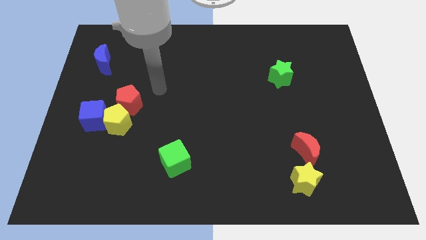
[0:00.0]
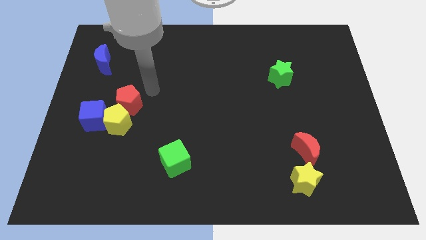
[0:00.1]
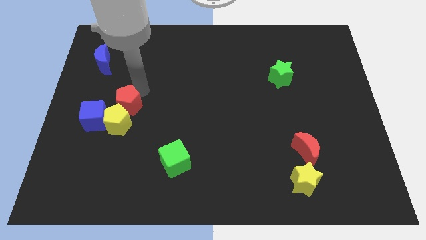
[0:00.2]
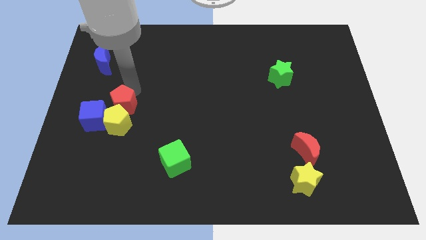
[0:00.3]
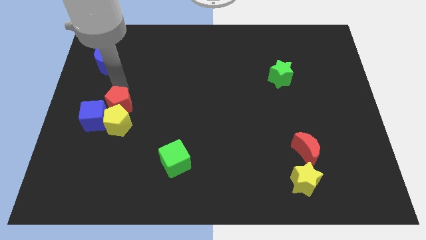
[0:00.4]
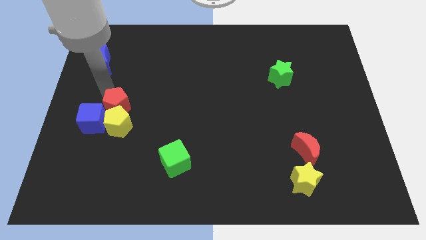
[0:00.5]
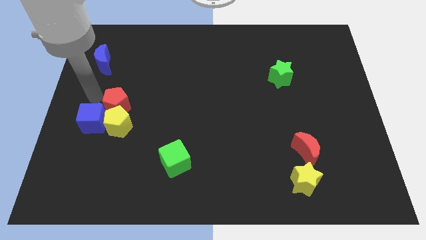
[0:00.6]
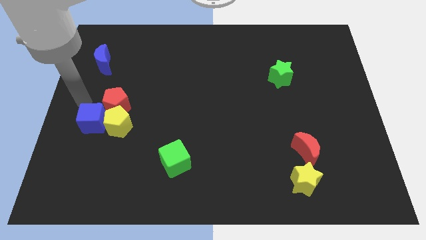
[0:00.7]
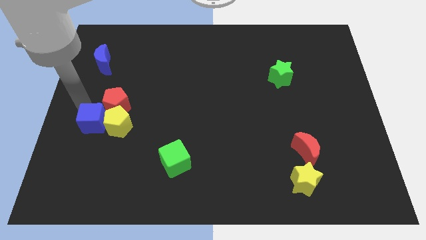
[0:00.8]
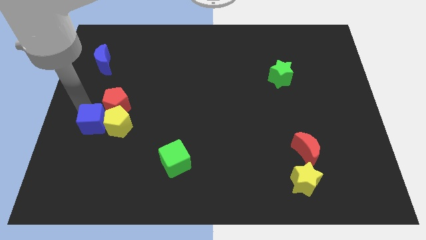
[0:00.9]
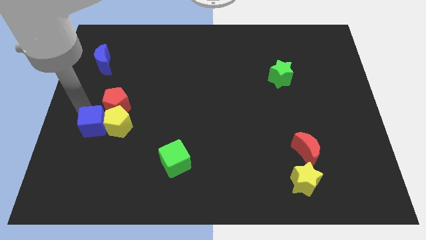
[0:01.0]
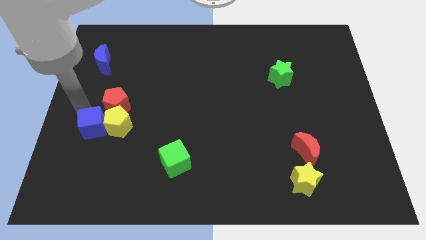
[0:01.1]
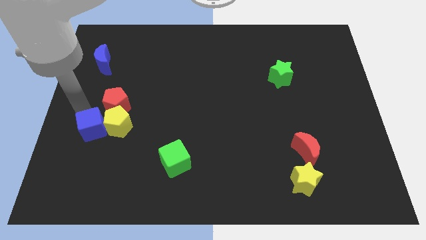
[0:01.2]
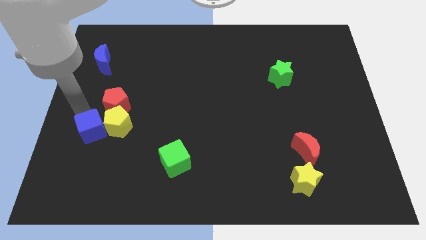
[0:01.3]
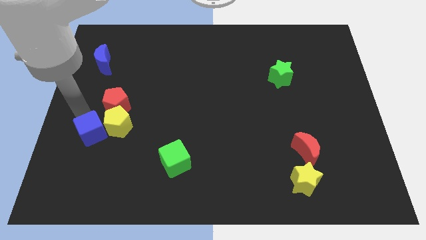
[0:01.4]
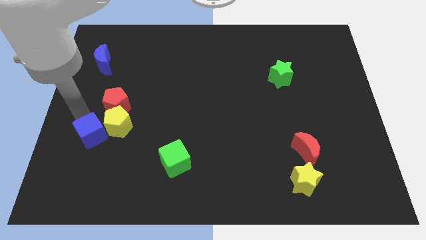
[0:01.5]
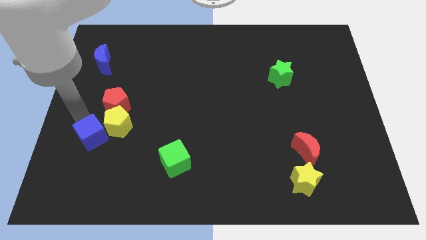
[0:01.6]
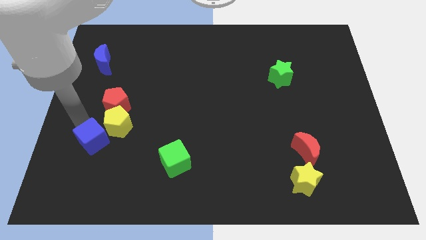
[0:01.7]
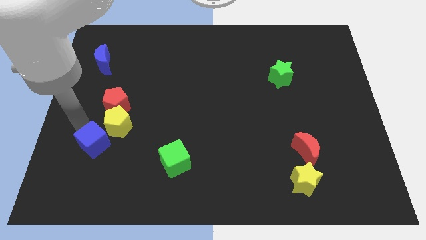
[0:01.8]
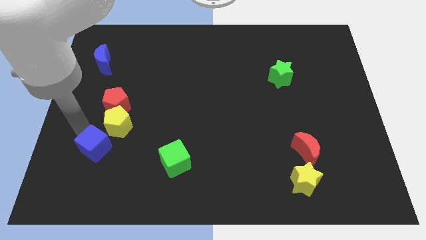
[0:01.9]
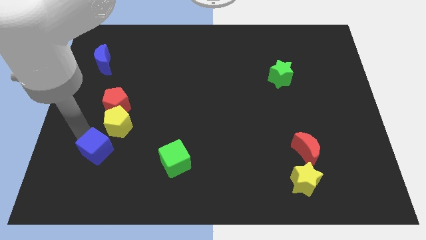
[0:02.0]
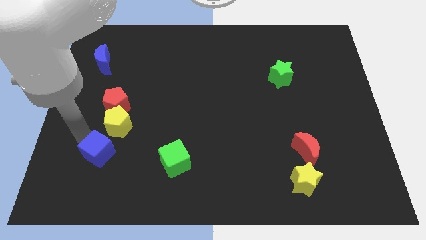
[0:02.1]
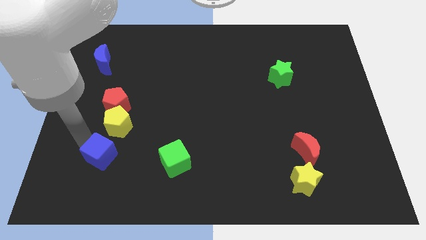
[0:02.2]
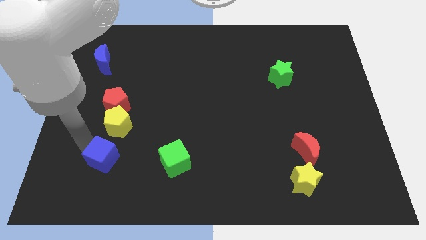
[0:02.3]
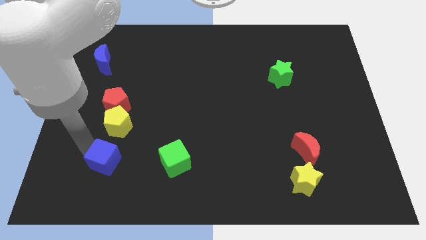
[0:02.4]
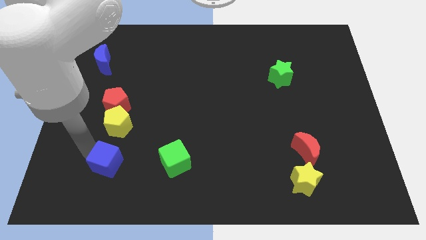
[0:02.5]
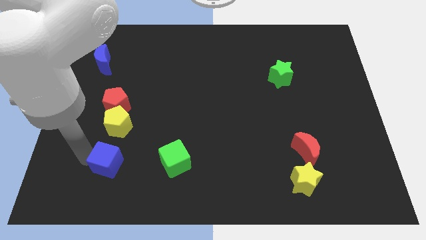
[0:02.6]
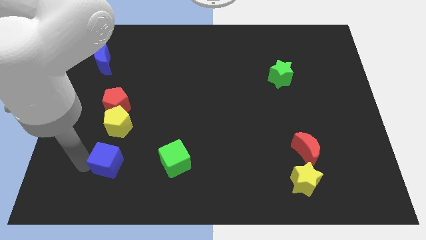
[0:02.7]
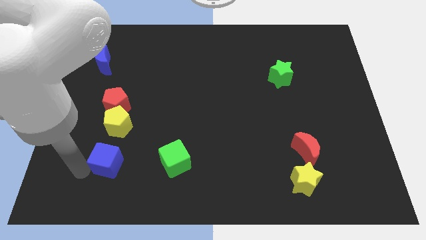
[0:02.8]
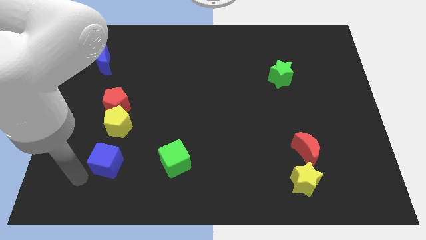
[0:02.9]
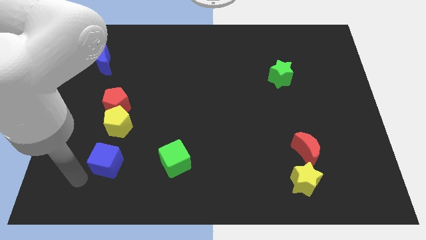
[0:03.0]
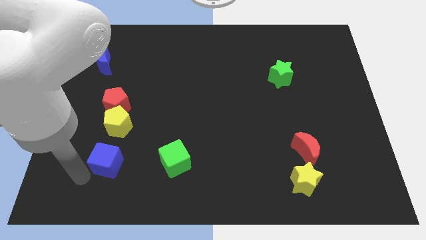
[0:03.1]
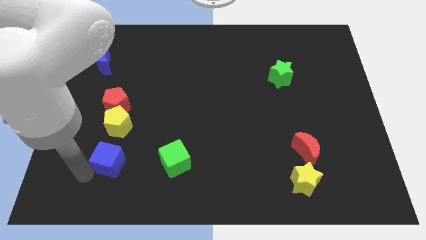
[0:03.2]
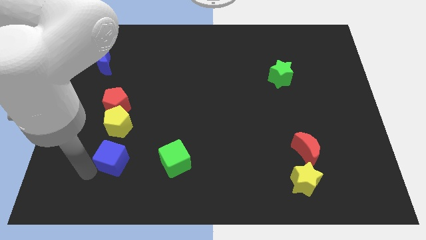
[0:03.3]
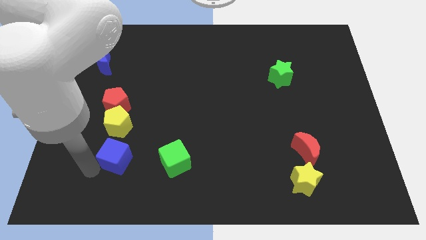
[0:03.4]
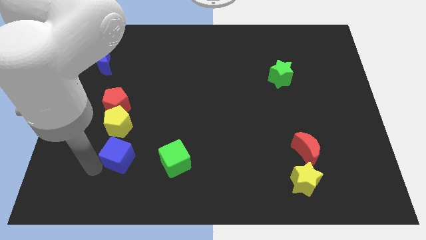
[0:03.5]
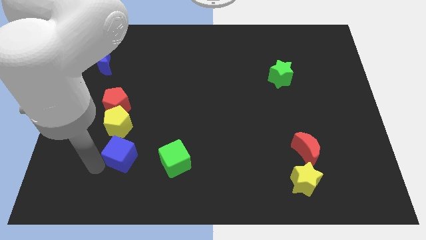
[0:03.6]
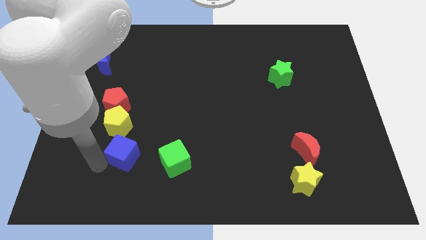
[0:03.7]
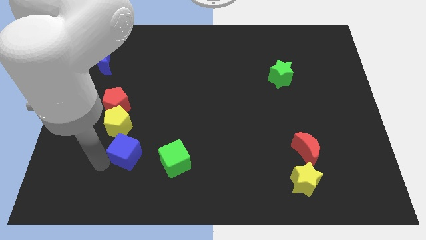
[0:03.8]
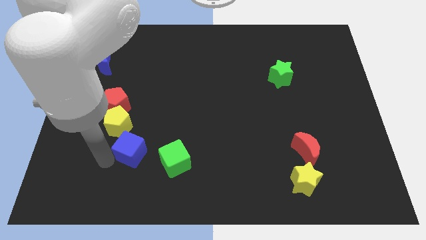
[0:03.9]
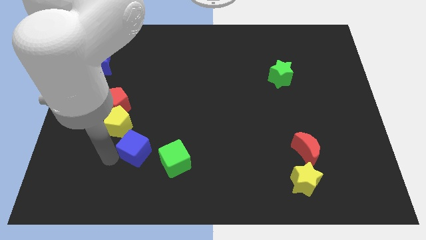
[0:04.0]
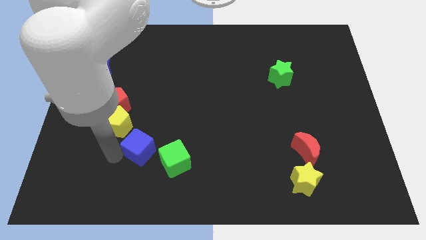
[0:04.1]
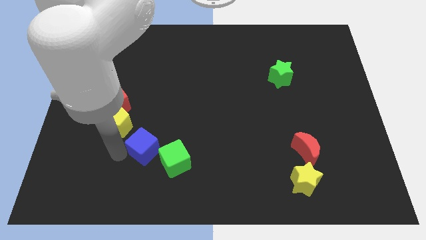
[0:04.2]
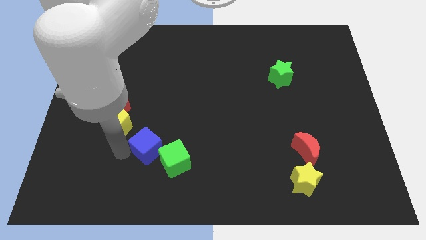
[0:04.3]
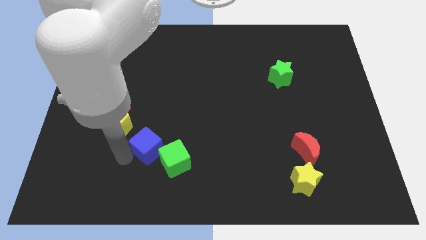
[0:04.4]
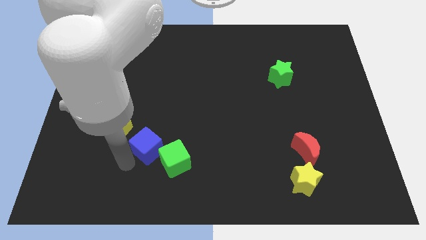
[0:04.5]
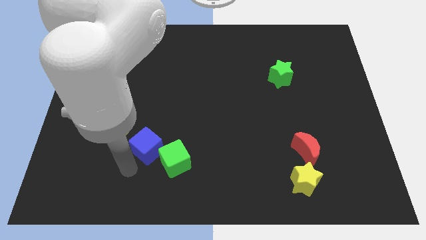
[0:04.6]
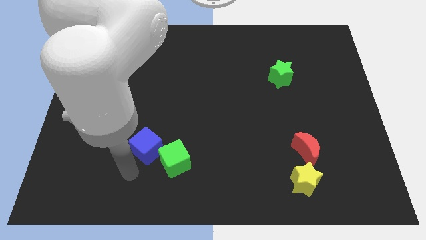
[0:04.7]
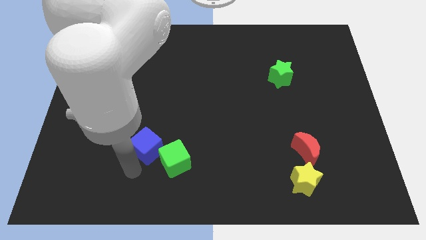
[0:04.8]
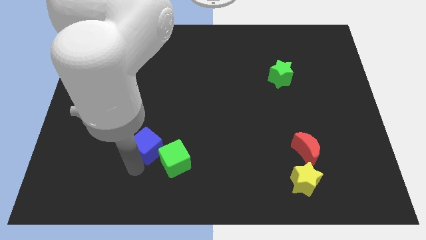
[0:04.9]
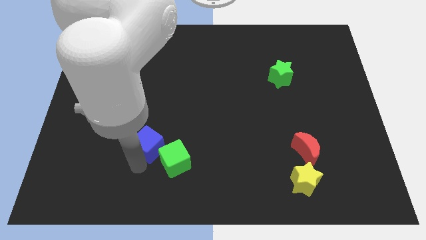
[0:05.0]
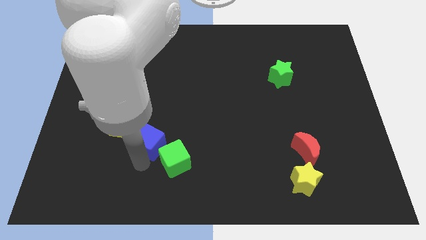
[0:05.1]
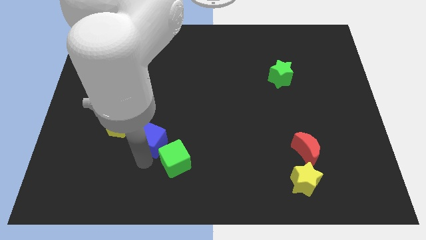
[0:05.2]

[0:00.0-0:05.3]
move the blue cube just right of the yellow pentagon

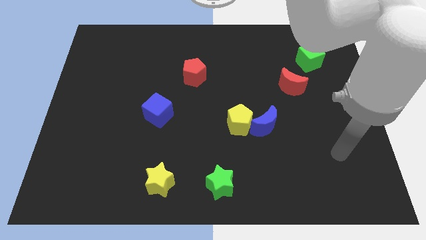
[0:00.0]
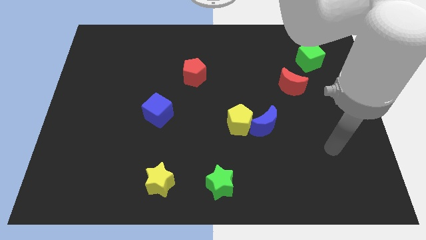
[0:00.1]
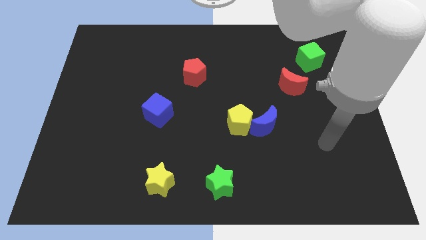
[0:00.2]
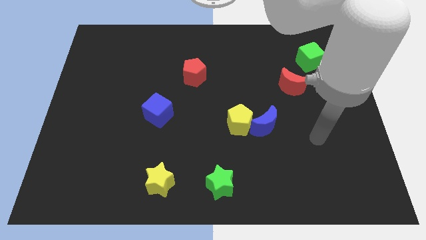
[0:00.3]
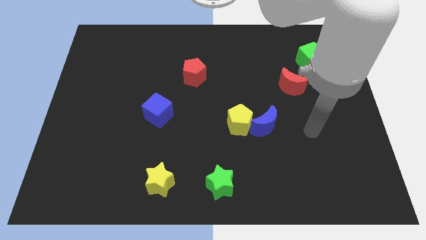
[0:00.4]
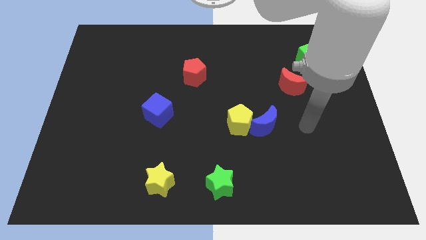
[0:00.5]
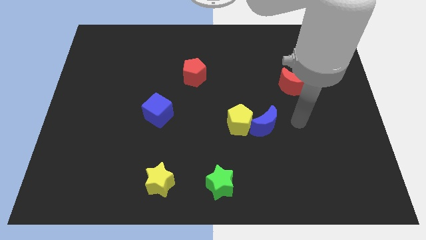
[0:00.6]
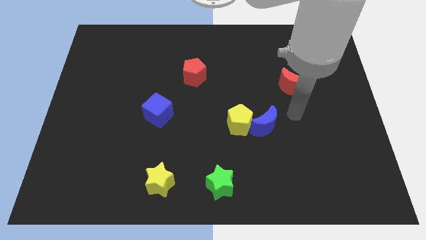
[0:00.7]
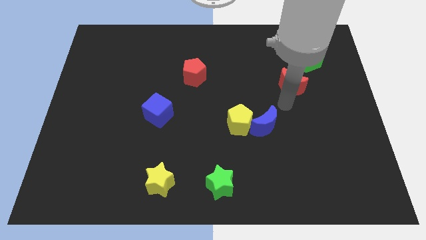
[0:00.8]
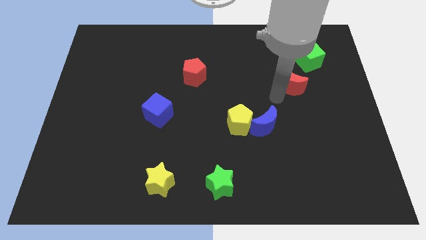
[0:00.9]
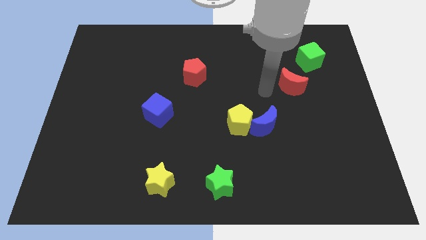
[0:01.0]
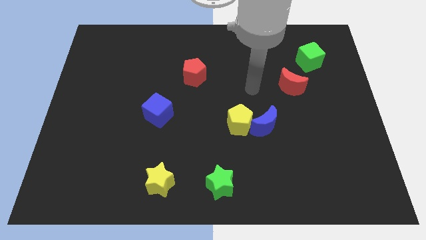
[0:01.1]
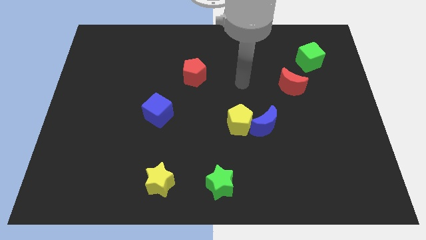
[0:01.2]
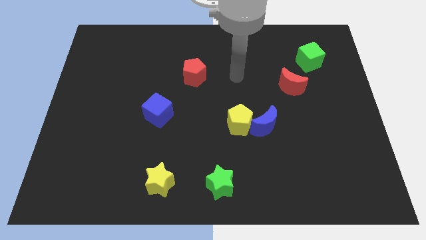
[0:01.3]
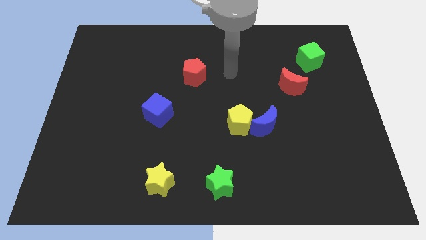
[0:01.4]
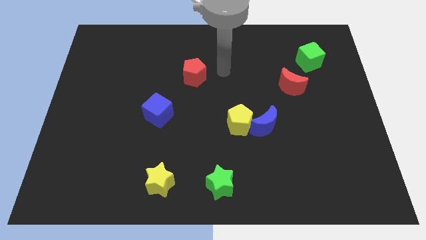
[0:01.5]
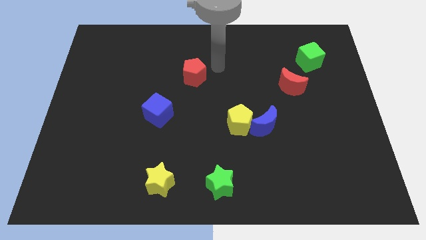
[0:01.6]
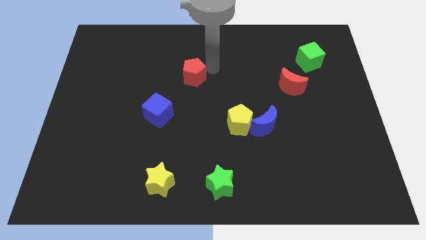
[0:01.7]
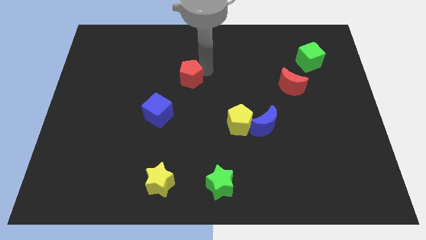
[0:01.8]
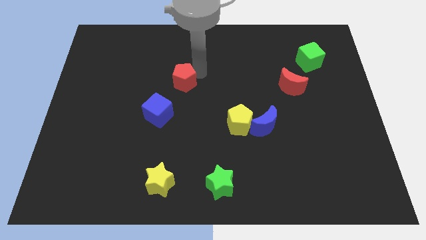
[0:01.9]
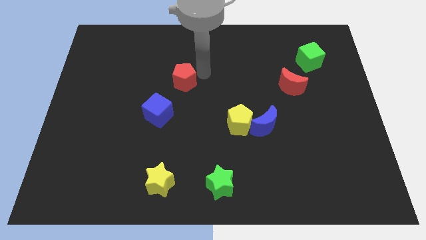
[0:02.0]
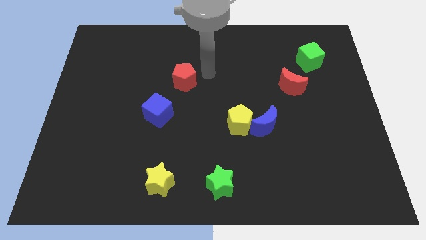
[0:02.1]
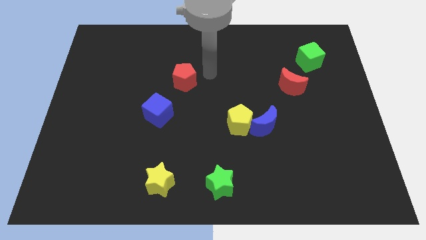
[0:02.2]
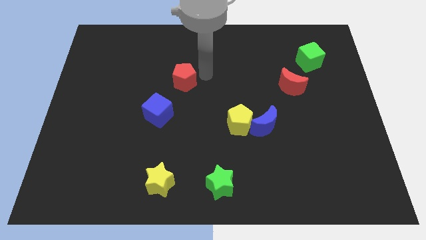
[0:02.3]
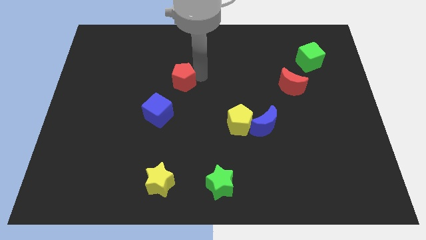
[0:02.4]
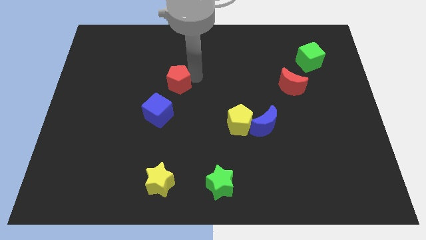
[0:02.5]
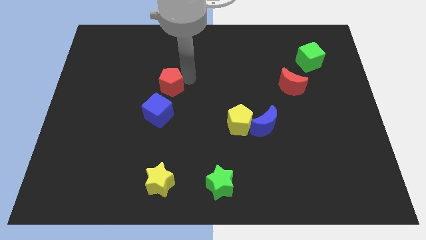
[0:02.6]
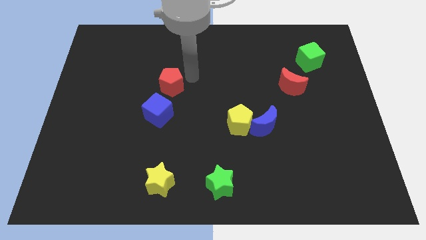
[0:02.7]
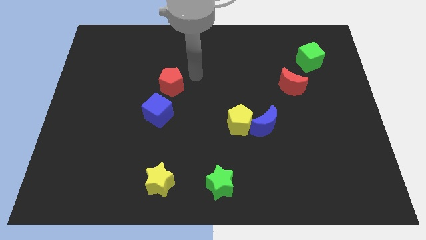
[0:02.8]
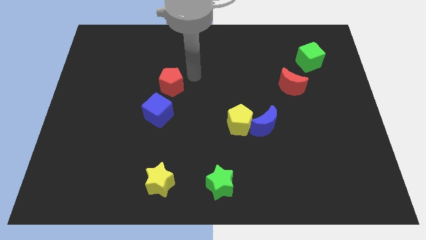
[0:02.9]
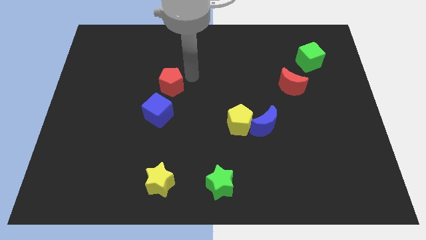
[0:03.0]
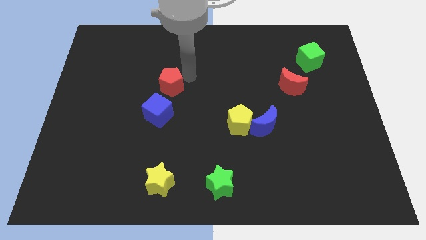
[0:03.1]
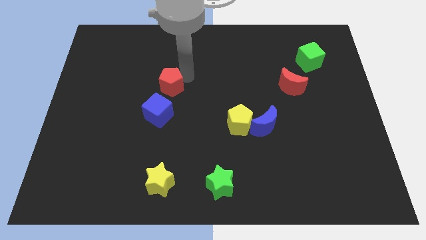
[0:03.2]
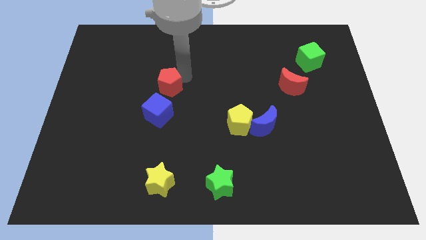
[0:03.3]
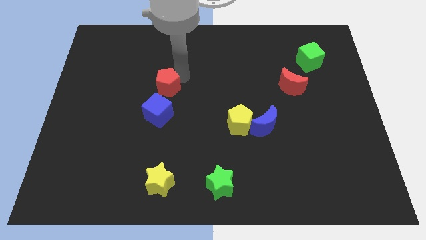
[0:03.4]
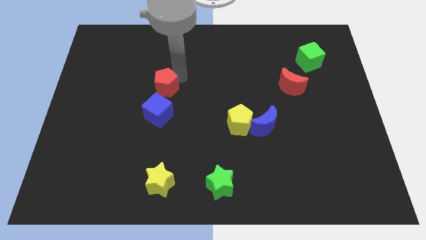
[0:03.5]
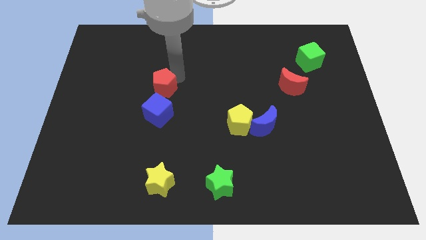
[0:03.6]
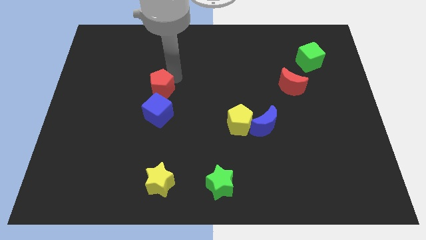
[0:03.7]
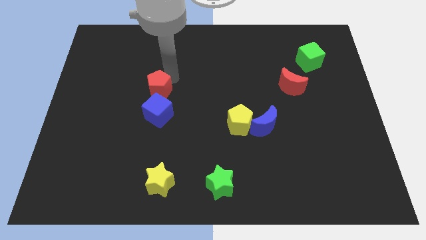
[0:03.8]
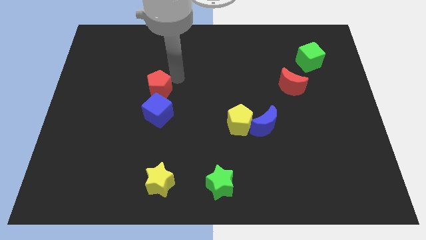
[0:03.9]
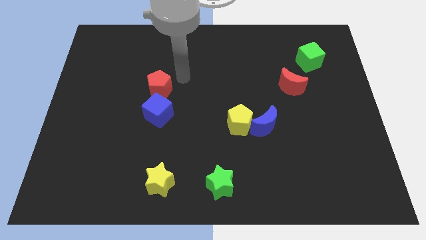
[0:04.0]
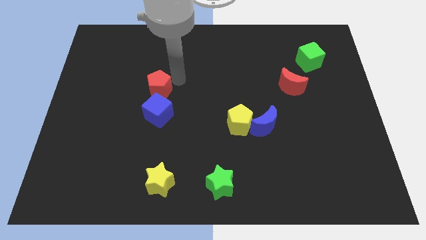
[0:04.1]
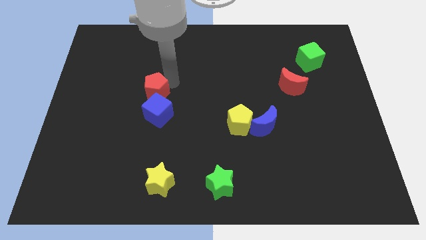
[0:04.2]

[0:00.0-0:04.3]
move the red pentagon diagonally up and to the left of the blue cube
